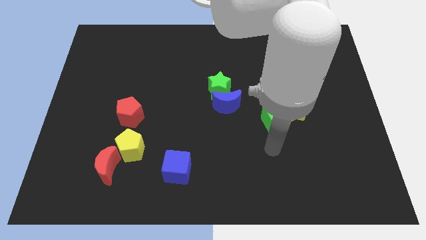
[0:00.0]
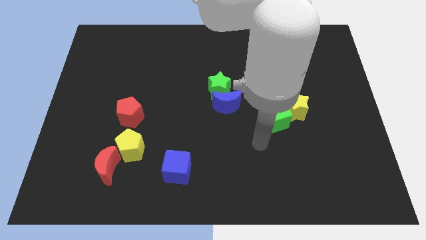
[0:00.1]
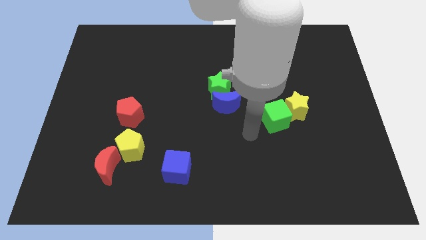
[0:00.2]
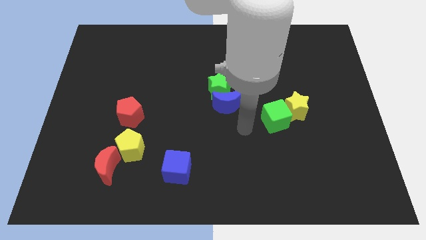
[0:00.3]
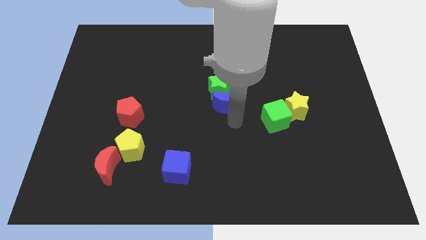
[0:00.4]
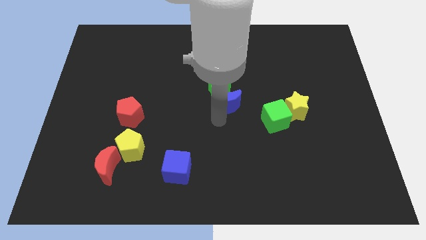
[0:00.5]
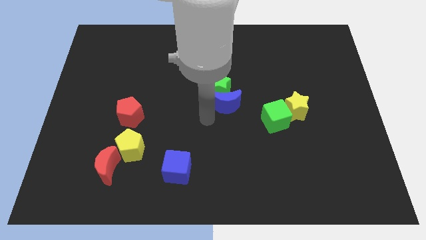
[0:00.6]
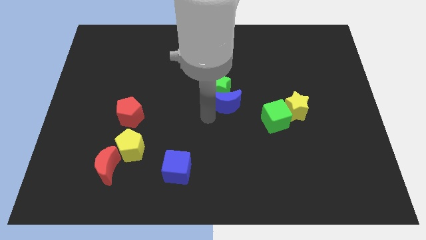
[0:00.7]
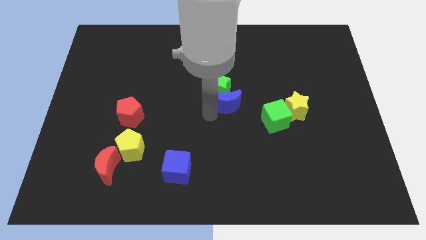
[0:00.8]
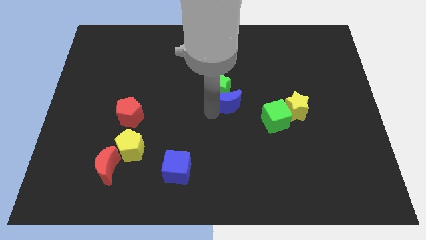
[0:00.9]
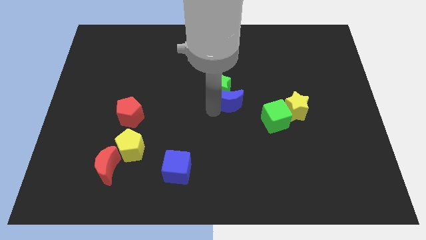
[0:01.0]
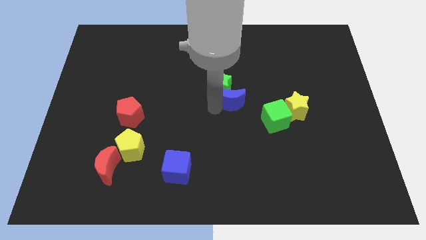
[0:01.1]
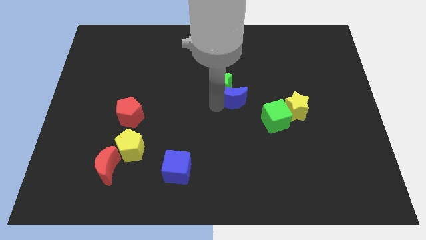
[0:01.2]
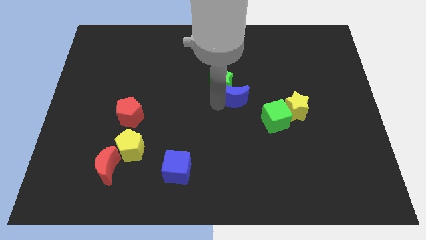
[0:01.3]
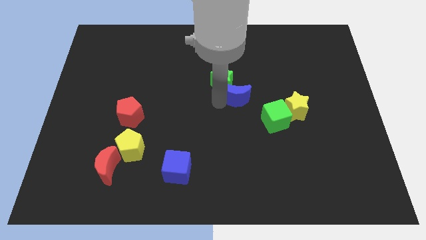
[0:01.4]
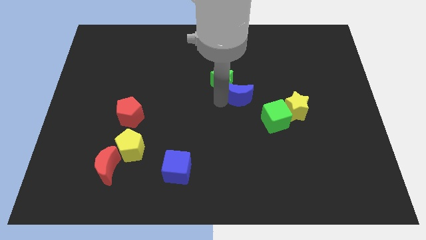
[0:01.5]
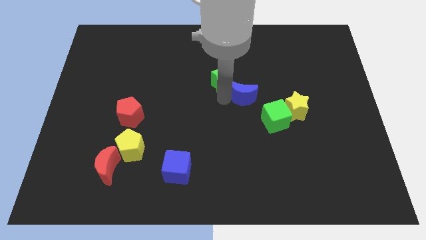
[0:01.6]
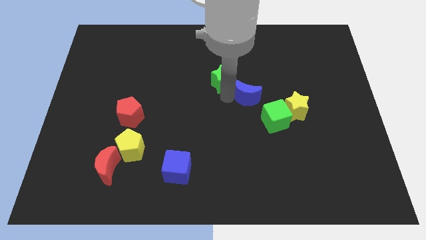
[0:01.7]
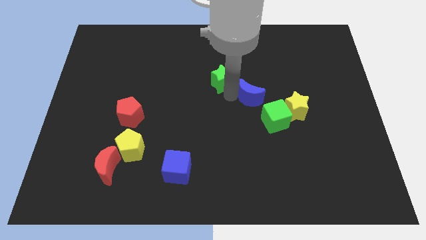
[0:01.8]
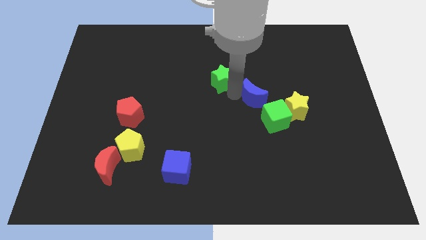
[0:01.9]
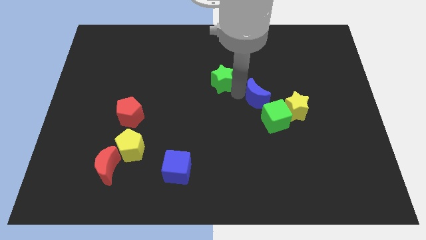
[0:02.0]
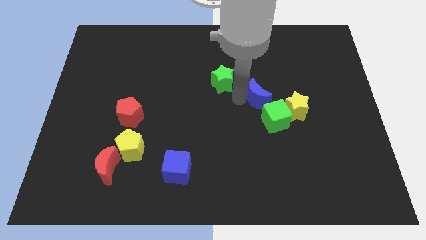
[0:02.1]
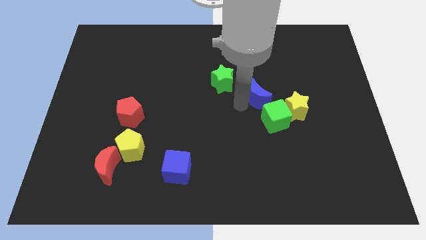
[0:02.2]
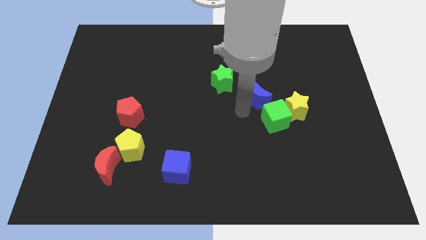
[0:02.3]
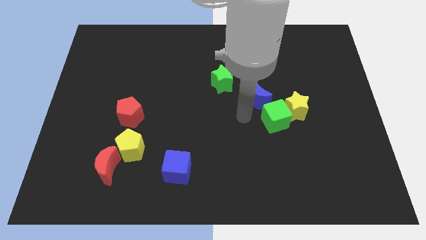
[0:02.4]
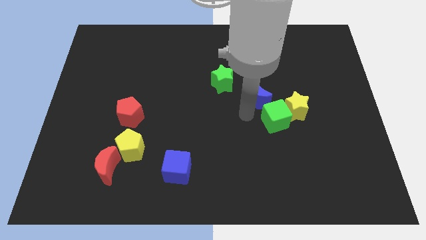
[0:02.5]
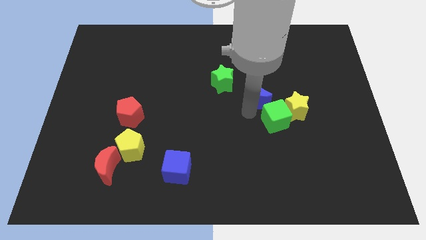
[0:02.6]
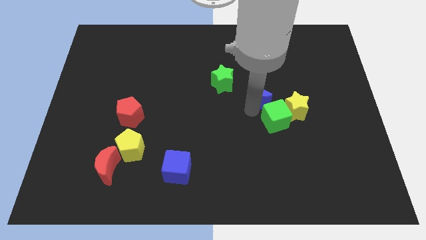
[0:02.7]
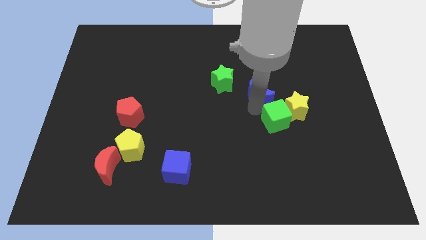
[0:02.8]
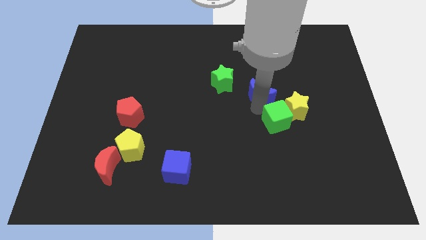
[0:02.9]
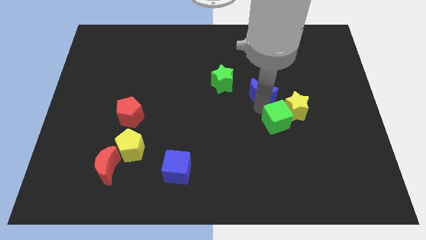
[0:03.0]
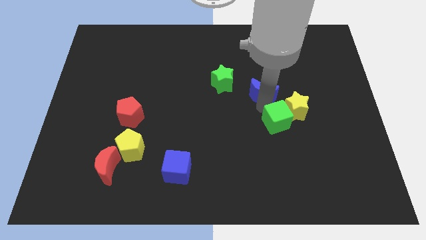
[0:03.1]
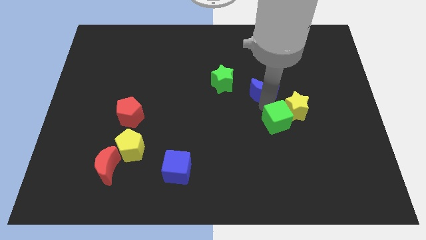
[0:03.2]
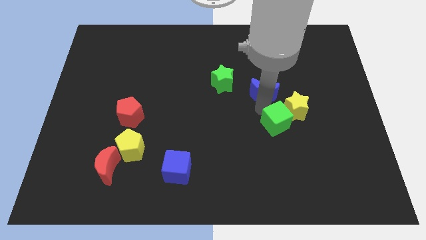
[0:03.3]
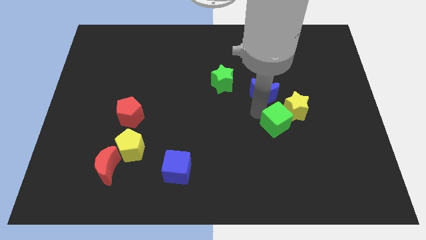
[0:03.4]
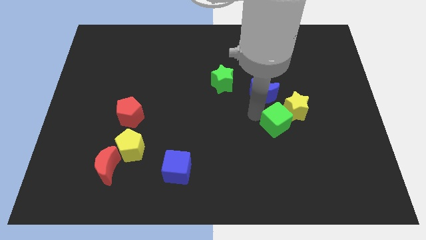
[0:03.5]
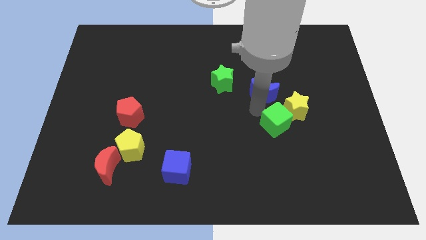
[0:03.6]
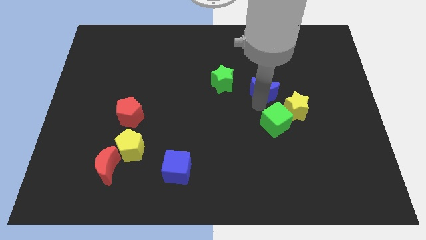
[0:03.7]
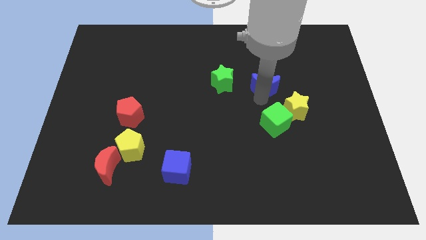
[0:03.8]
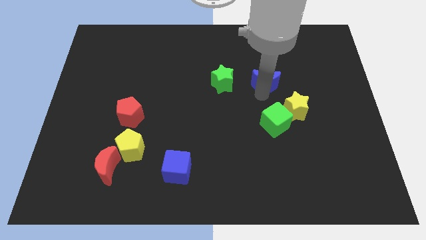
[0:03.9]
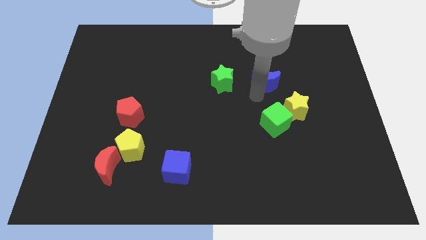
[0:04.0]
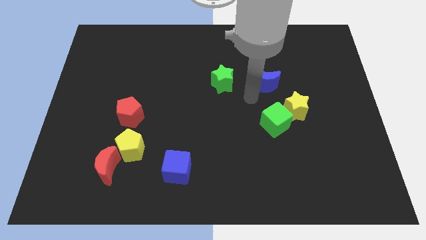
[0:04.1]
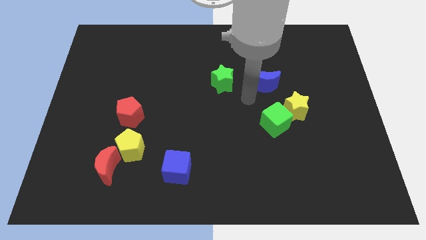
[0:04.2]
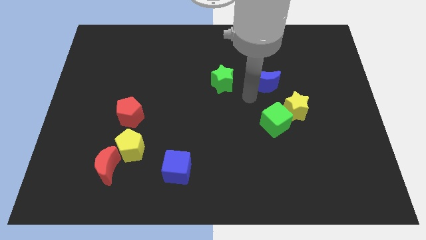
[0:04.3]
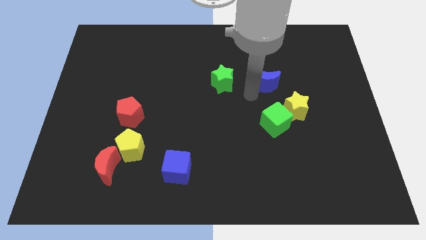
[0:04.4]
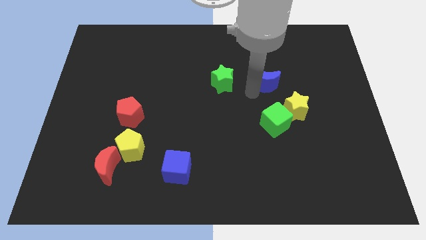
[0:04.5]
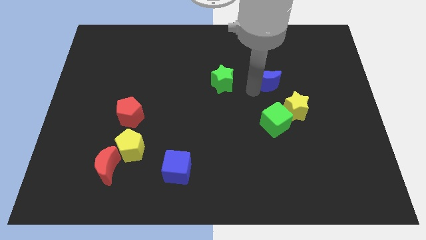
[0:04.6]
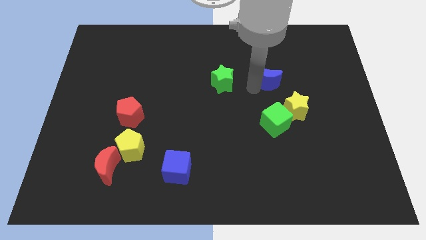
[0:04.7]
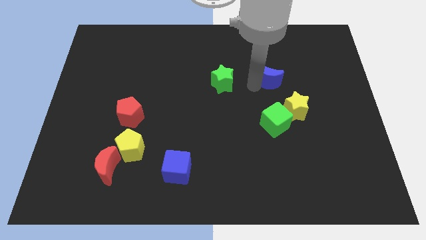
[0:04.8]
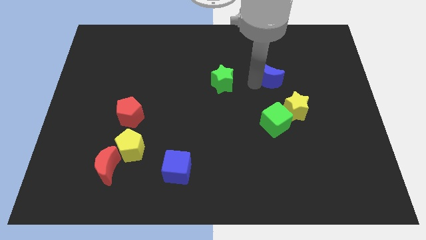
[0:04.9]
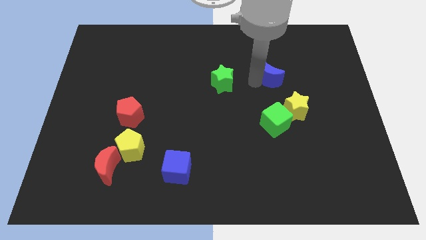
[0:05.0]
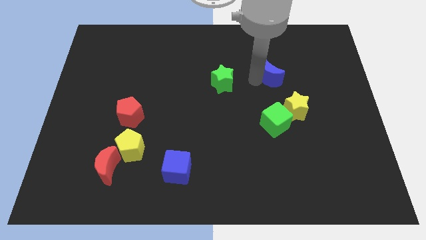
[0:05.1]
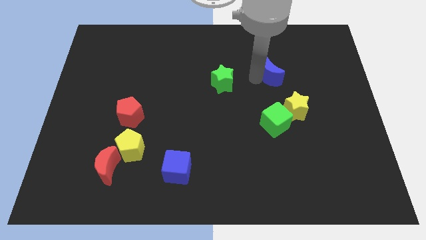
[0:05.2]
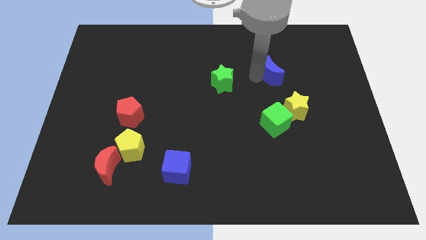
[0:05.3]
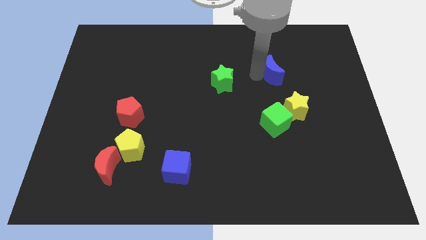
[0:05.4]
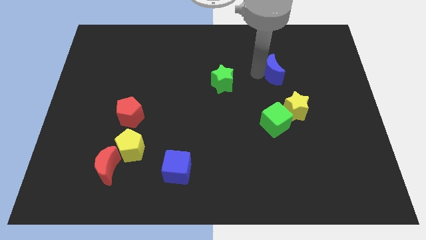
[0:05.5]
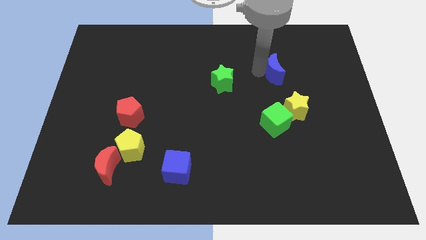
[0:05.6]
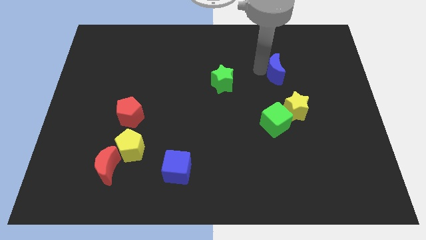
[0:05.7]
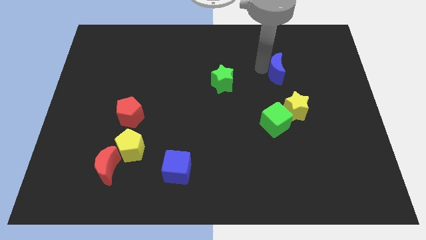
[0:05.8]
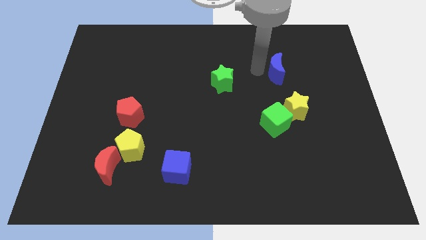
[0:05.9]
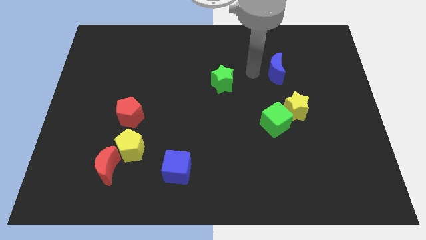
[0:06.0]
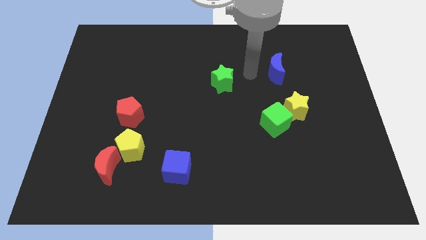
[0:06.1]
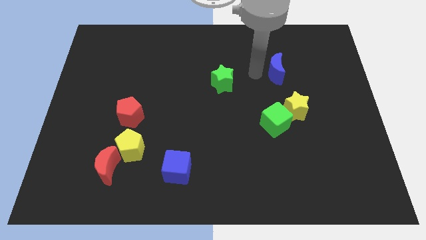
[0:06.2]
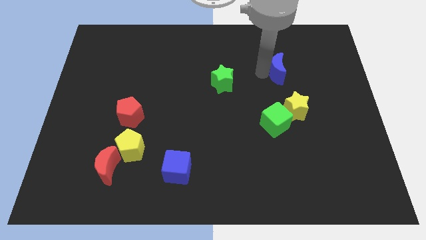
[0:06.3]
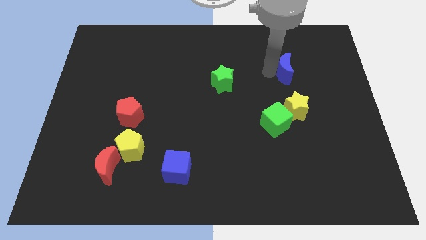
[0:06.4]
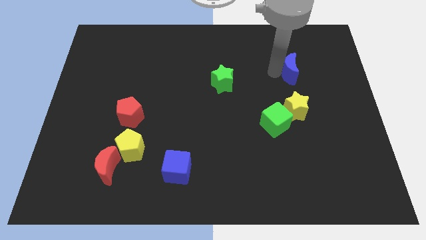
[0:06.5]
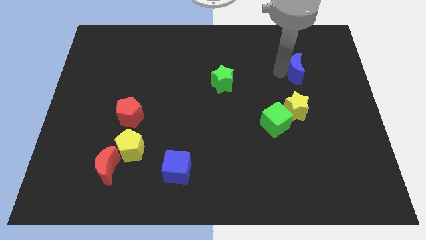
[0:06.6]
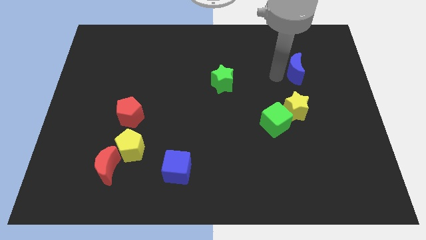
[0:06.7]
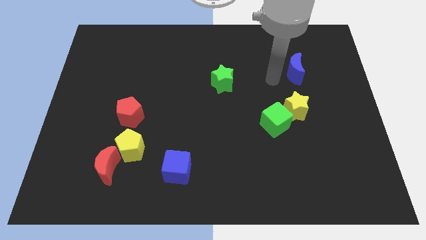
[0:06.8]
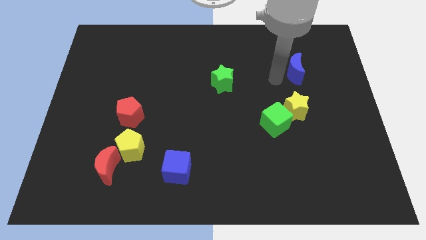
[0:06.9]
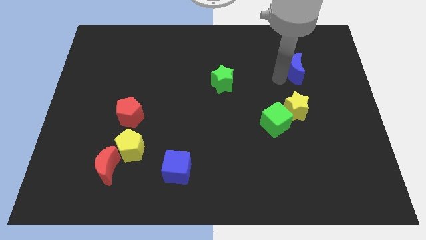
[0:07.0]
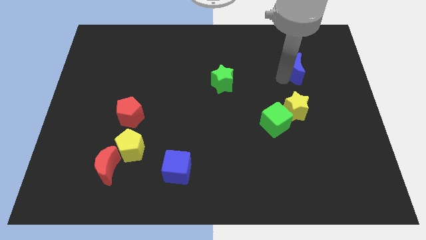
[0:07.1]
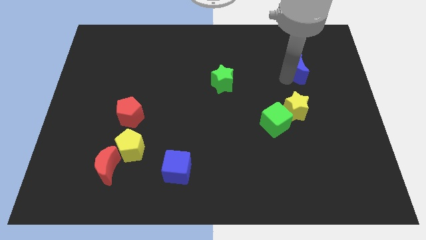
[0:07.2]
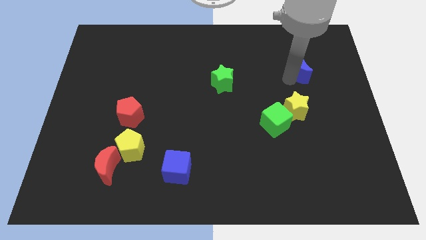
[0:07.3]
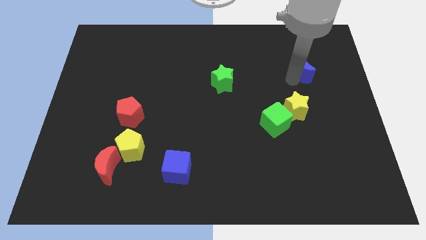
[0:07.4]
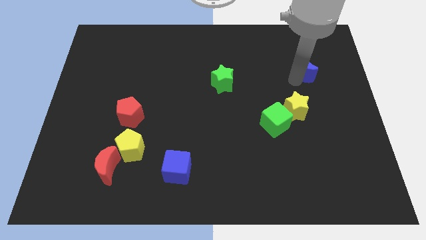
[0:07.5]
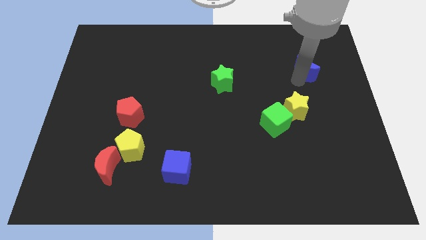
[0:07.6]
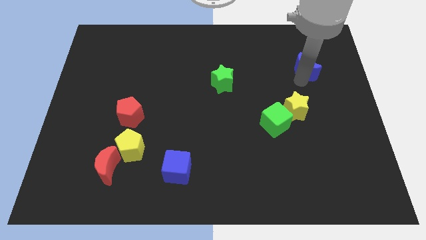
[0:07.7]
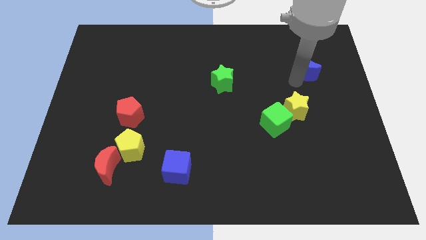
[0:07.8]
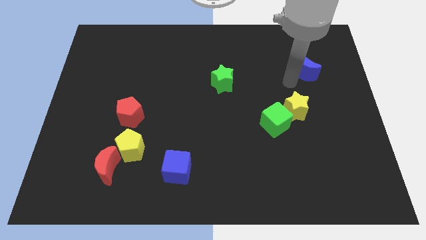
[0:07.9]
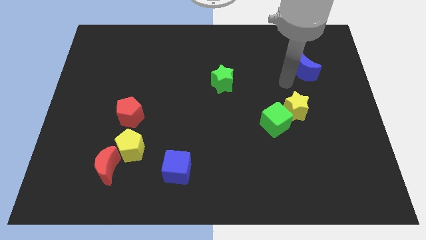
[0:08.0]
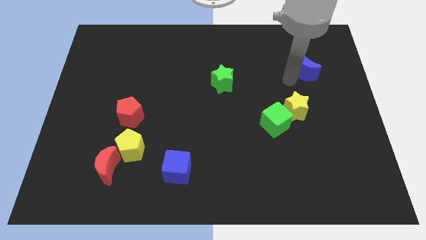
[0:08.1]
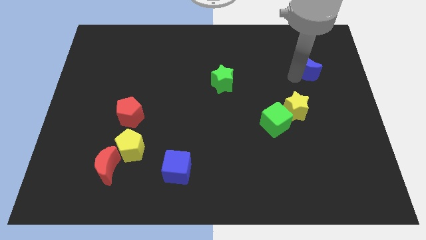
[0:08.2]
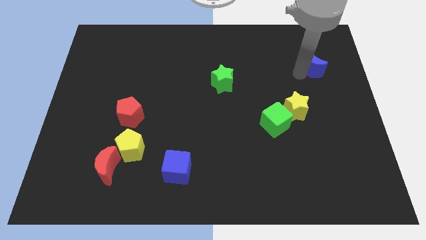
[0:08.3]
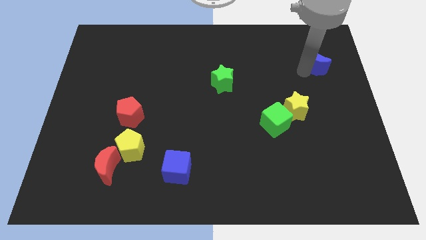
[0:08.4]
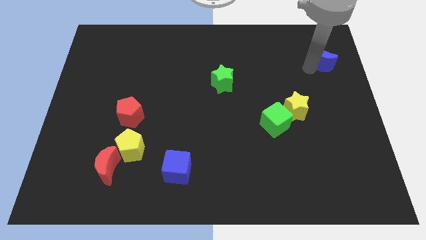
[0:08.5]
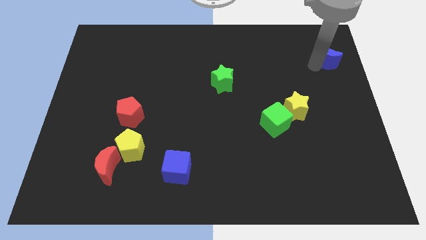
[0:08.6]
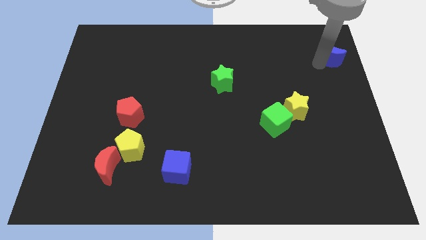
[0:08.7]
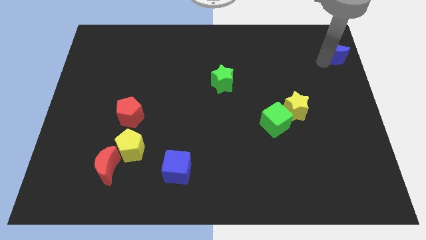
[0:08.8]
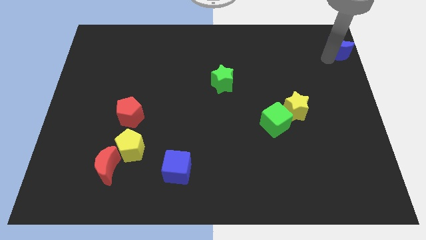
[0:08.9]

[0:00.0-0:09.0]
push the blue moon to the top right
